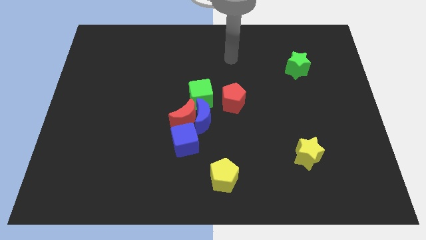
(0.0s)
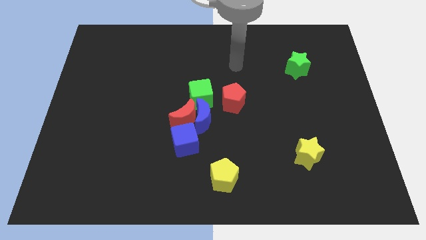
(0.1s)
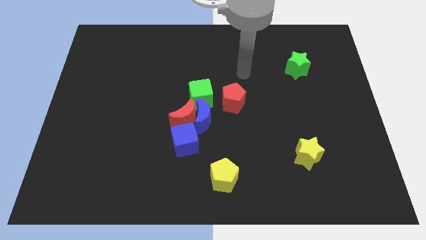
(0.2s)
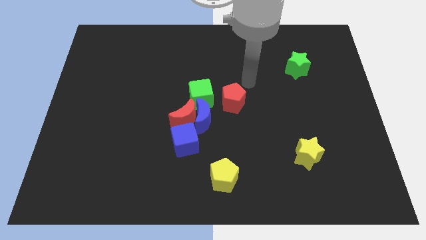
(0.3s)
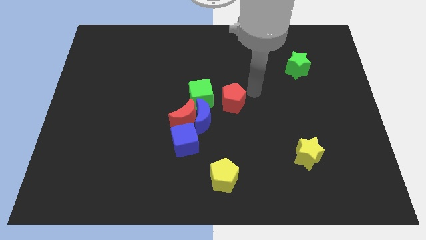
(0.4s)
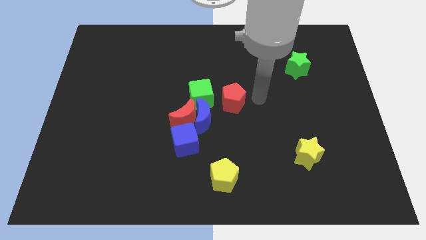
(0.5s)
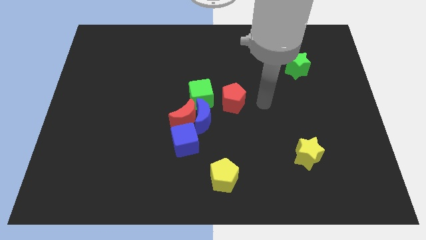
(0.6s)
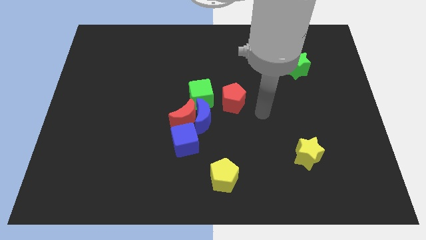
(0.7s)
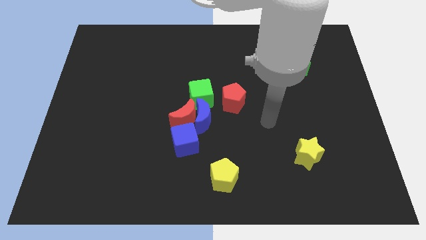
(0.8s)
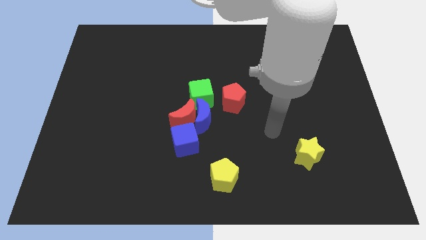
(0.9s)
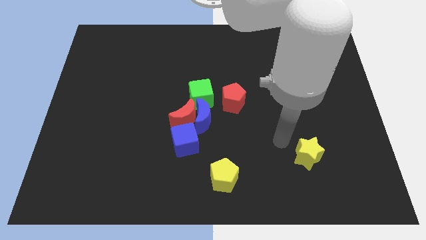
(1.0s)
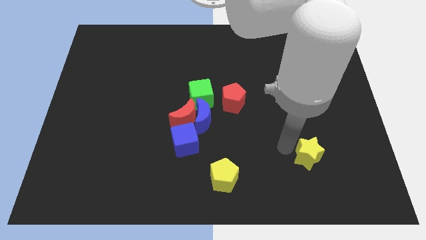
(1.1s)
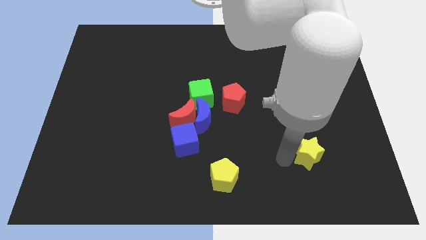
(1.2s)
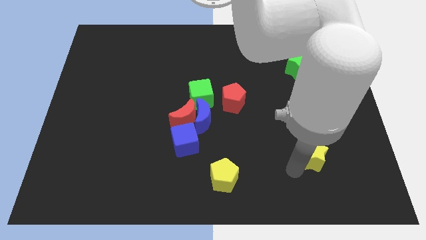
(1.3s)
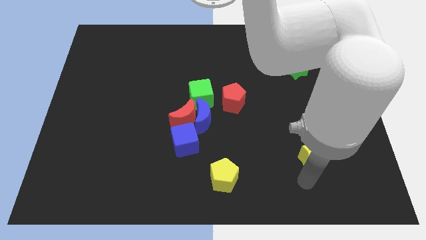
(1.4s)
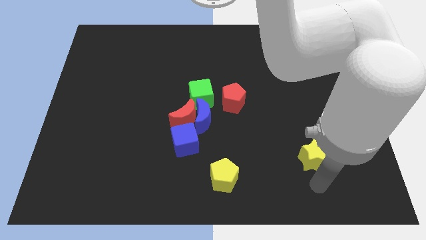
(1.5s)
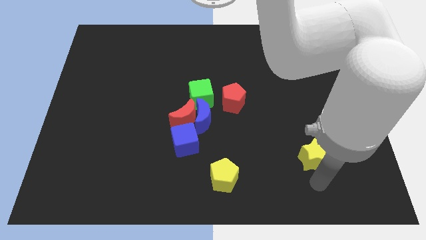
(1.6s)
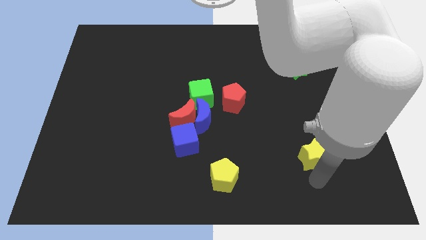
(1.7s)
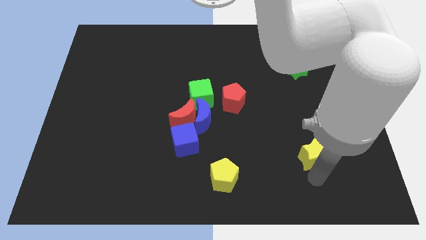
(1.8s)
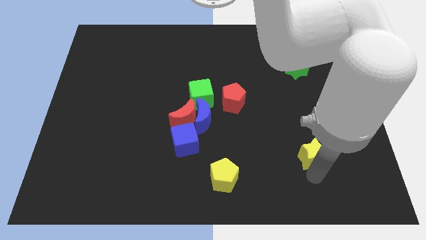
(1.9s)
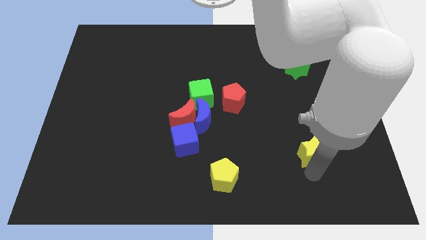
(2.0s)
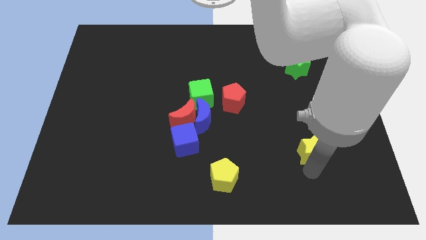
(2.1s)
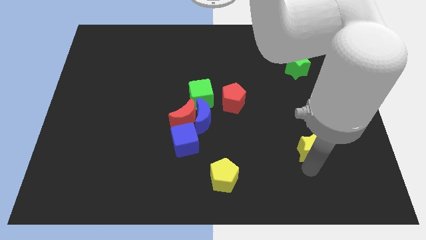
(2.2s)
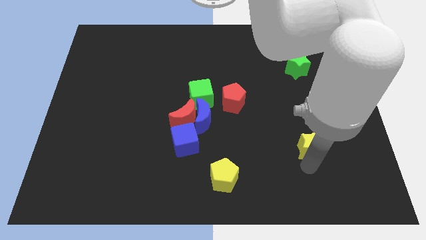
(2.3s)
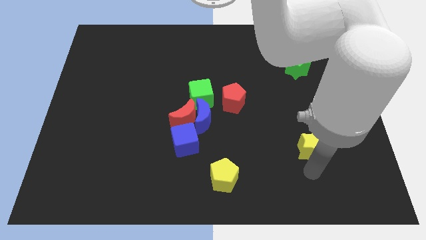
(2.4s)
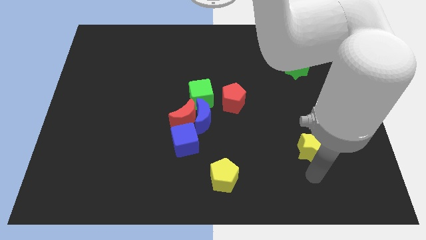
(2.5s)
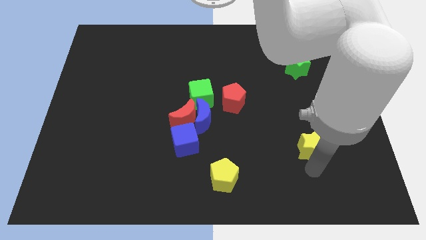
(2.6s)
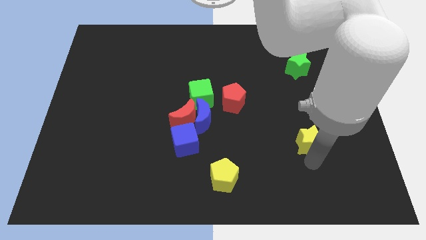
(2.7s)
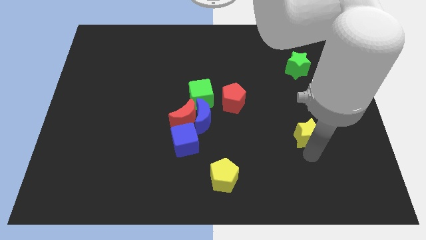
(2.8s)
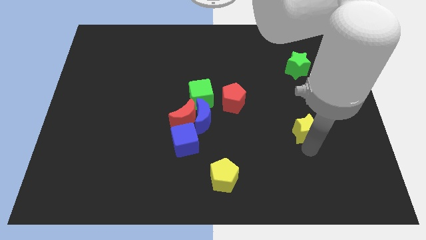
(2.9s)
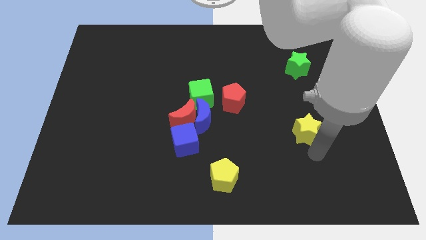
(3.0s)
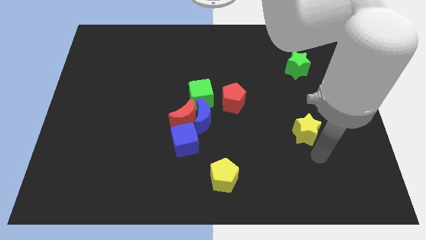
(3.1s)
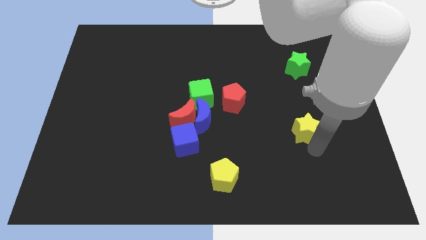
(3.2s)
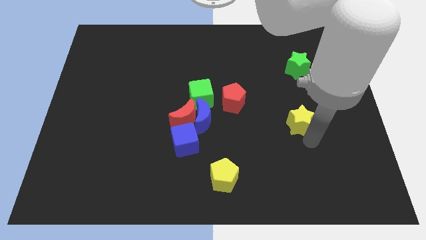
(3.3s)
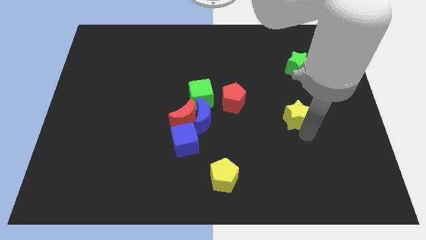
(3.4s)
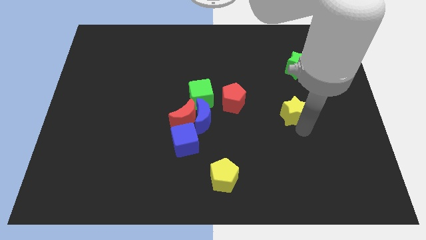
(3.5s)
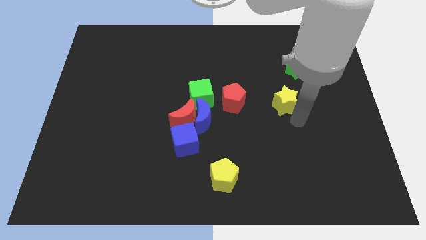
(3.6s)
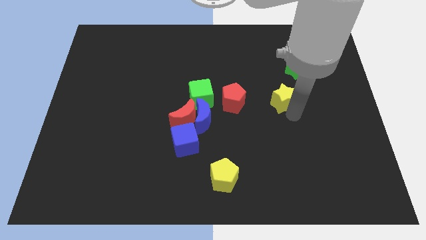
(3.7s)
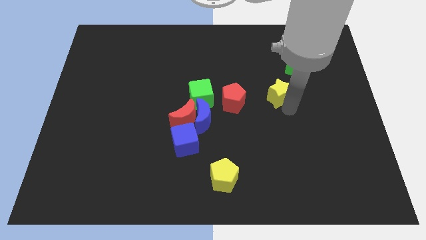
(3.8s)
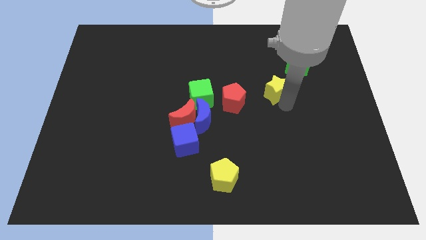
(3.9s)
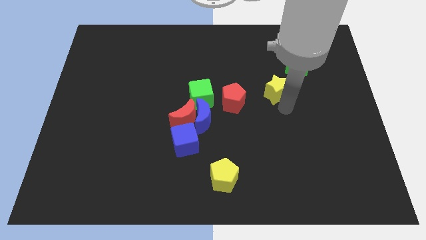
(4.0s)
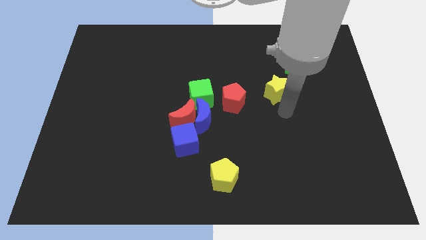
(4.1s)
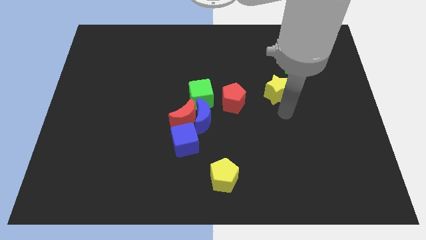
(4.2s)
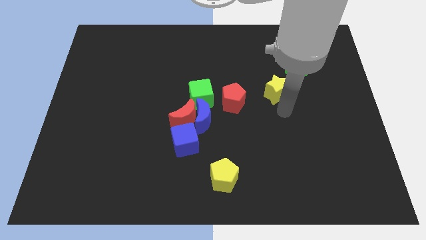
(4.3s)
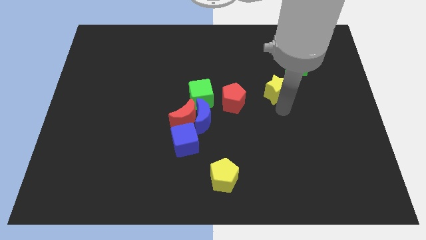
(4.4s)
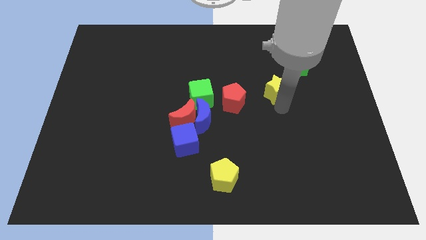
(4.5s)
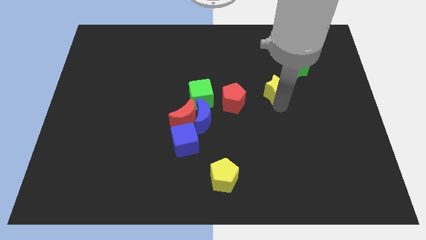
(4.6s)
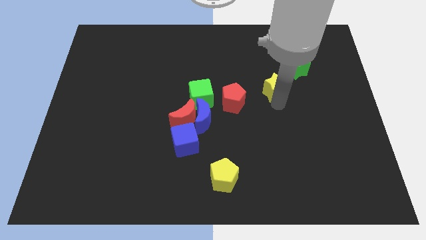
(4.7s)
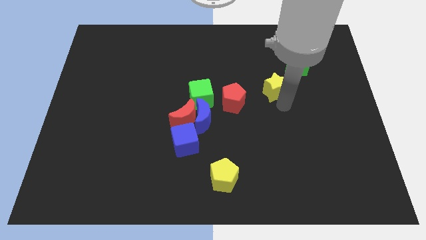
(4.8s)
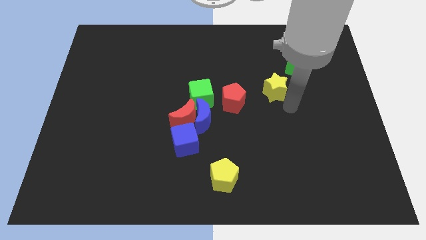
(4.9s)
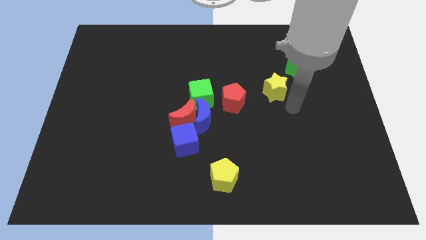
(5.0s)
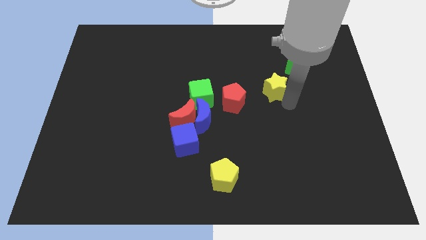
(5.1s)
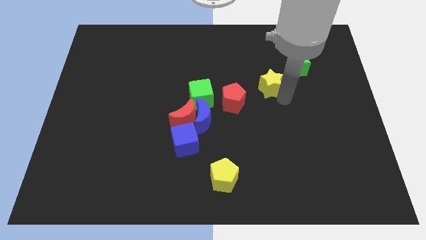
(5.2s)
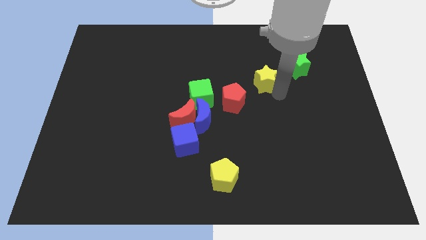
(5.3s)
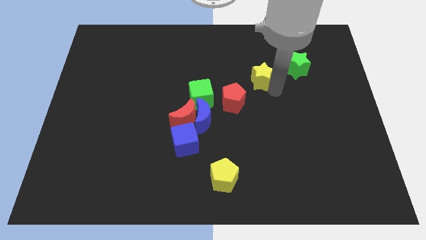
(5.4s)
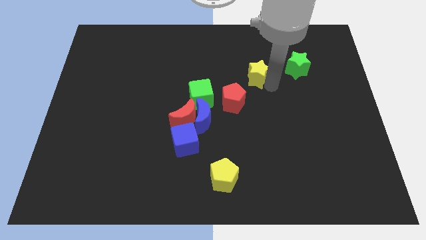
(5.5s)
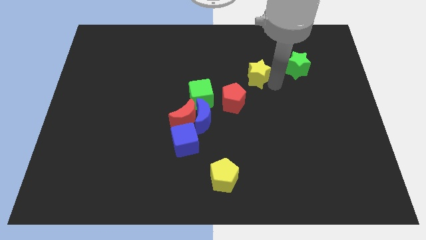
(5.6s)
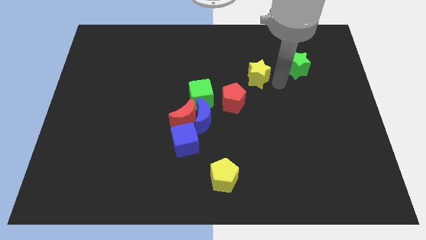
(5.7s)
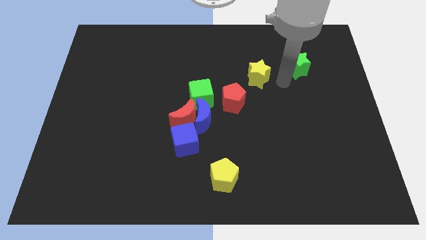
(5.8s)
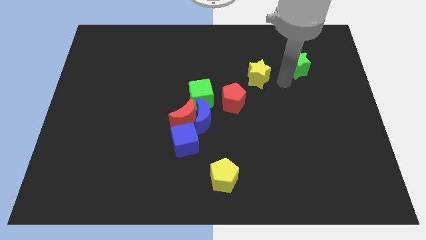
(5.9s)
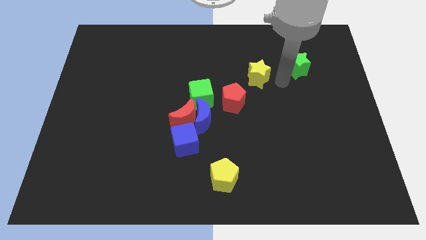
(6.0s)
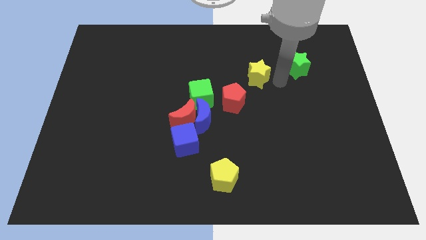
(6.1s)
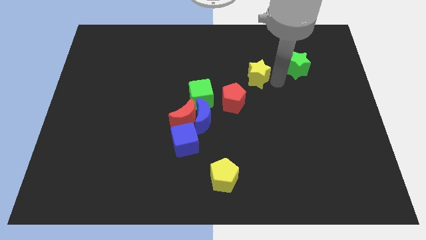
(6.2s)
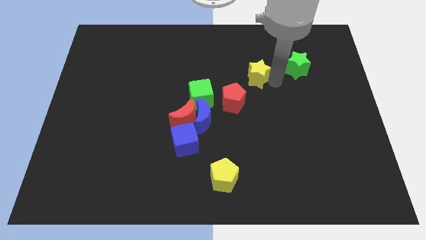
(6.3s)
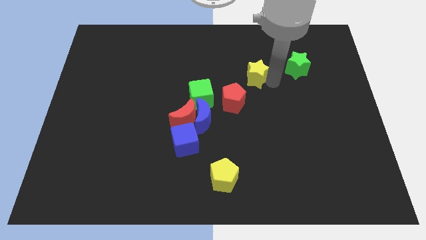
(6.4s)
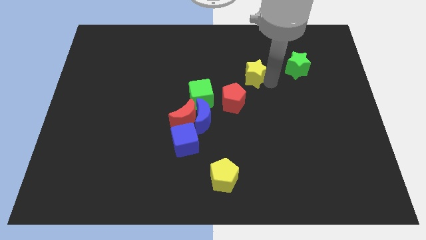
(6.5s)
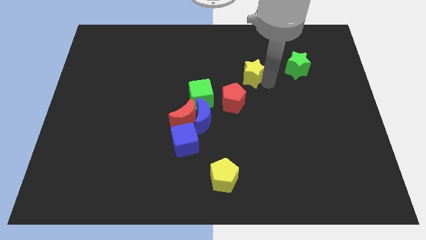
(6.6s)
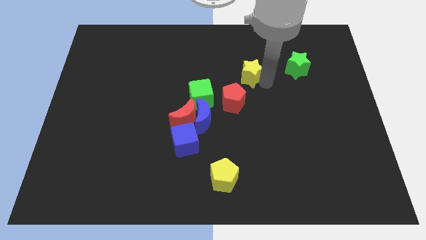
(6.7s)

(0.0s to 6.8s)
move the yellow star upwards and then to the left

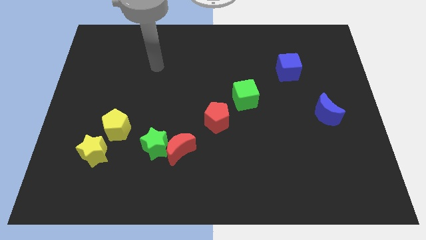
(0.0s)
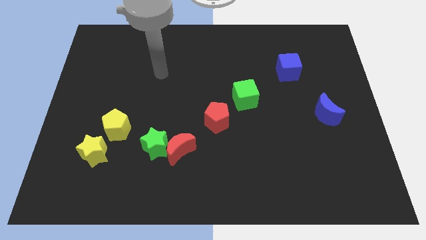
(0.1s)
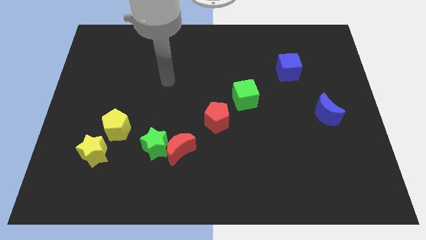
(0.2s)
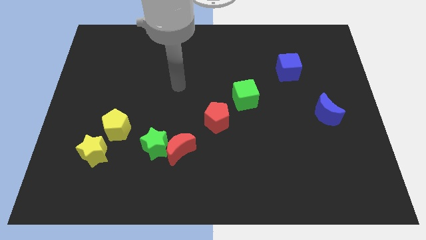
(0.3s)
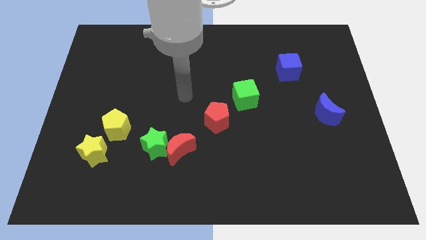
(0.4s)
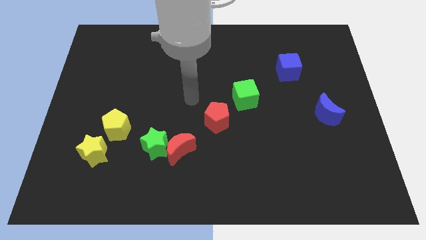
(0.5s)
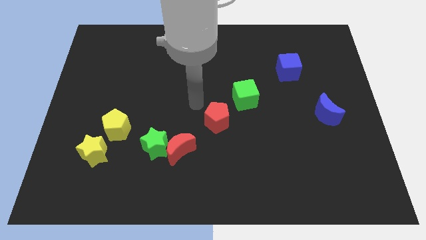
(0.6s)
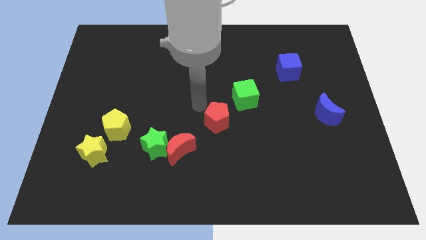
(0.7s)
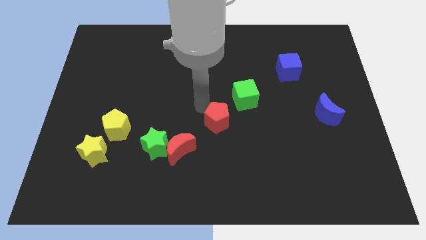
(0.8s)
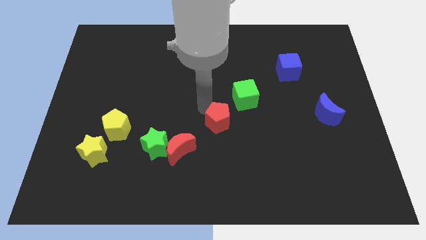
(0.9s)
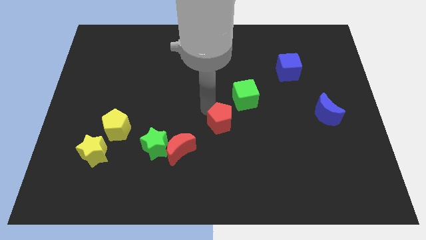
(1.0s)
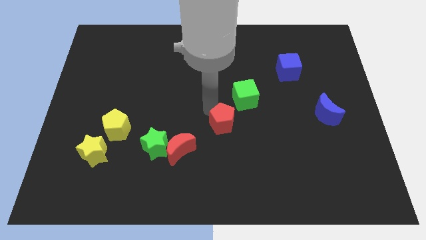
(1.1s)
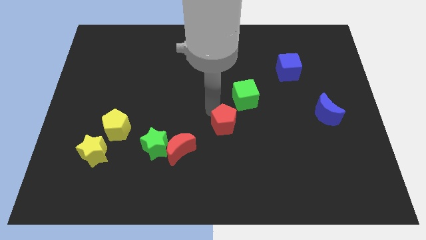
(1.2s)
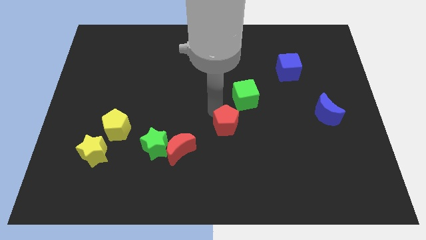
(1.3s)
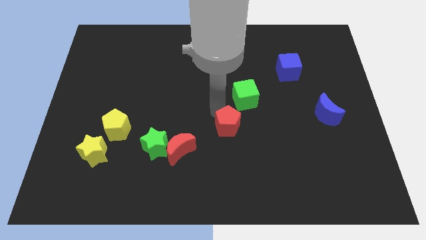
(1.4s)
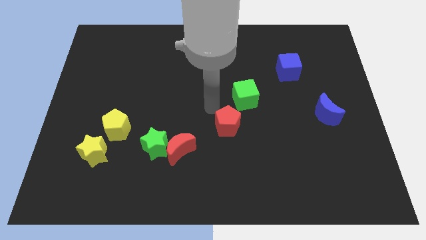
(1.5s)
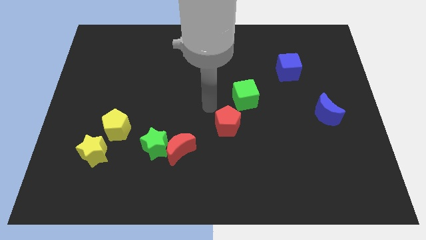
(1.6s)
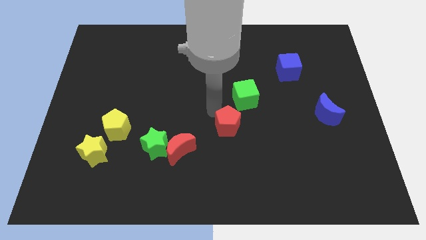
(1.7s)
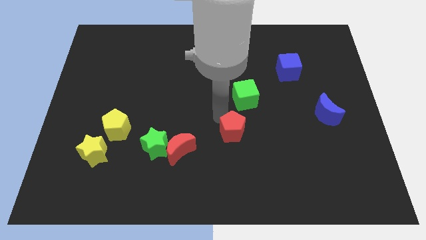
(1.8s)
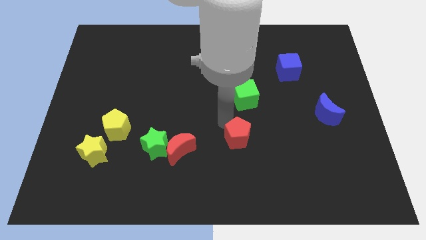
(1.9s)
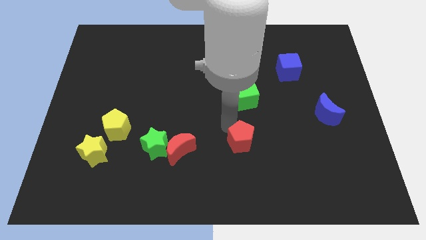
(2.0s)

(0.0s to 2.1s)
slide the red pentagon a little bit down and then to the right
